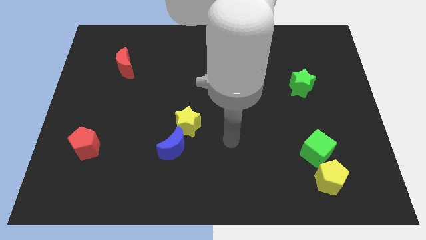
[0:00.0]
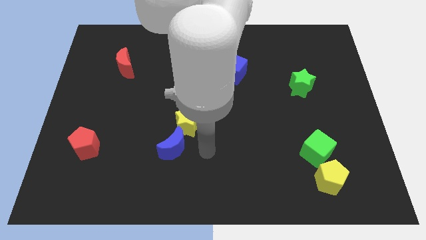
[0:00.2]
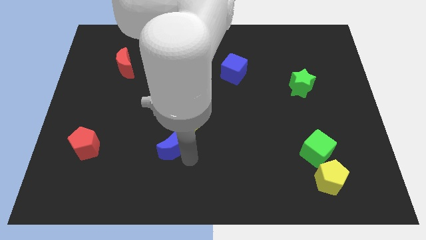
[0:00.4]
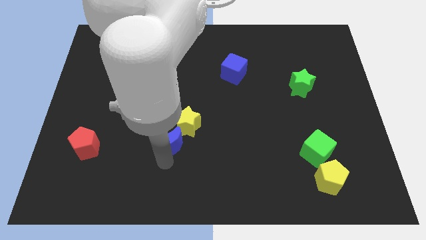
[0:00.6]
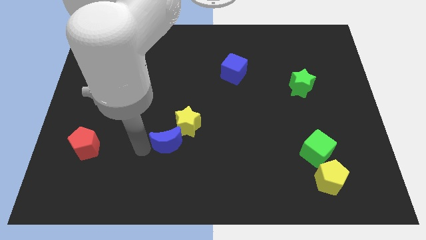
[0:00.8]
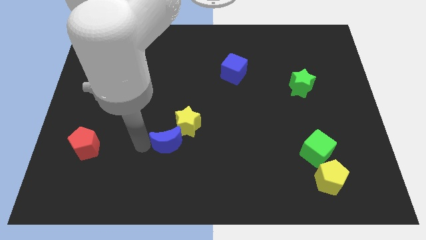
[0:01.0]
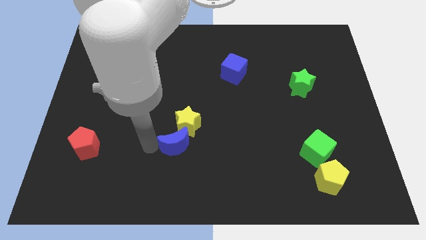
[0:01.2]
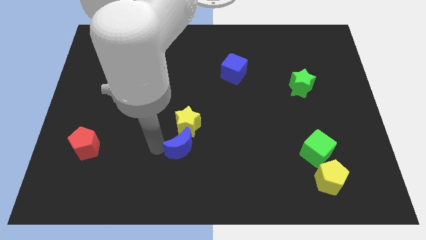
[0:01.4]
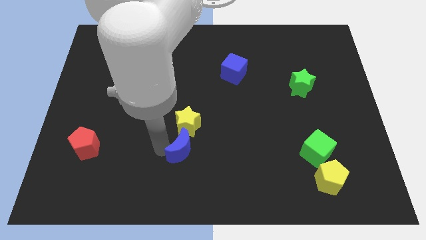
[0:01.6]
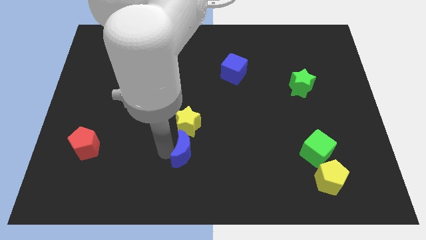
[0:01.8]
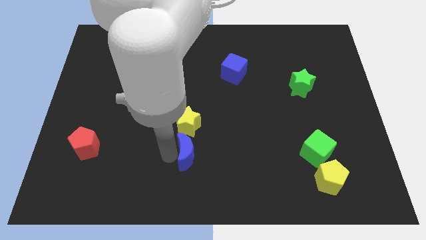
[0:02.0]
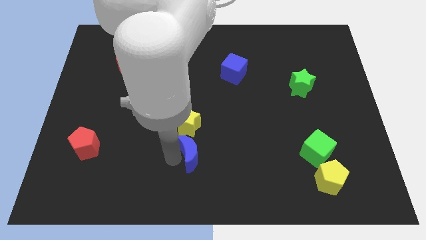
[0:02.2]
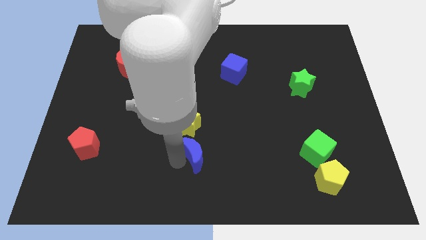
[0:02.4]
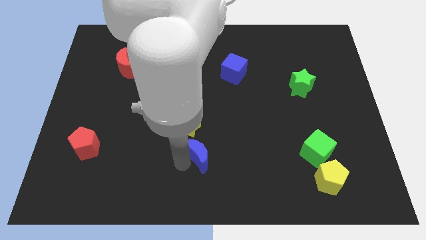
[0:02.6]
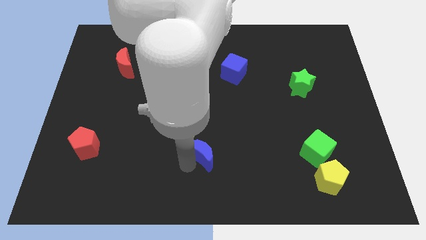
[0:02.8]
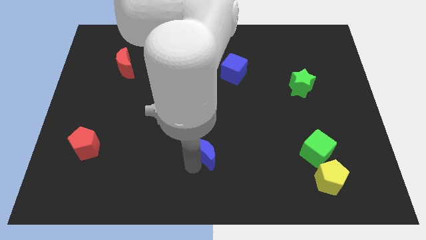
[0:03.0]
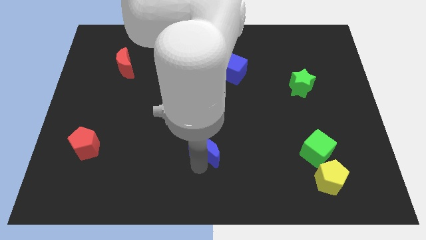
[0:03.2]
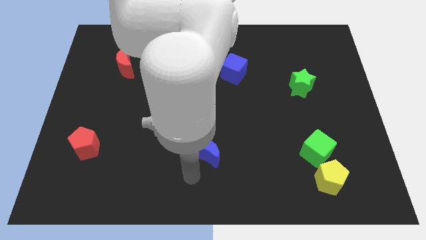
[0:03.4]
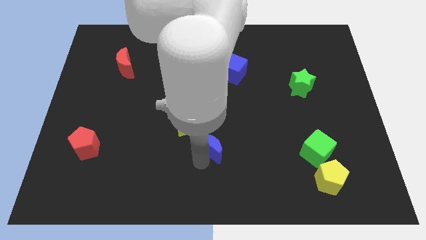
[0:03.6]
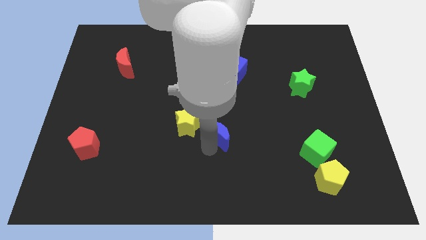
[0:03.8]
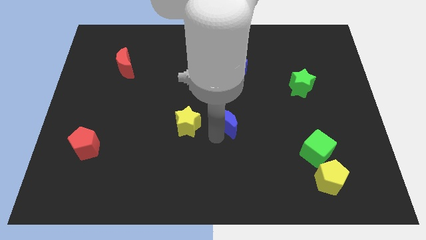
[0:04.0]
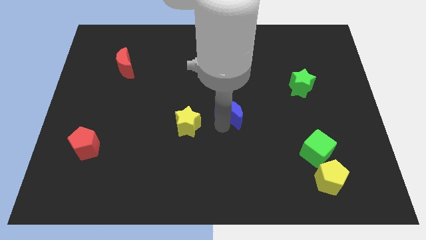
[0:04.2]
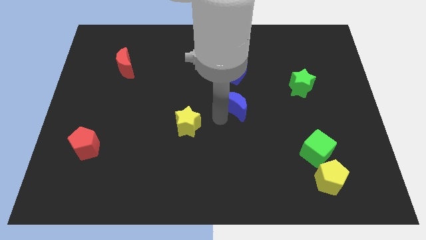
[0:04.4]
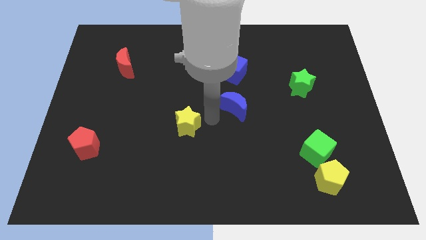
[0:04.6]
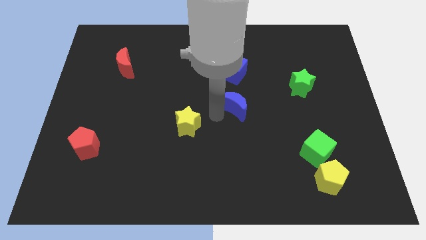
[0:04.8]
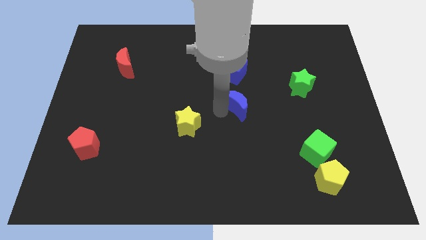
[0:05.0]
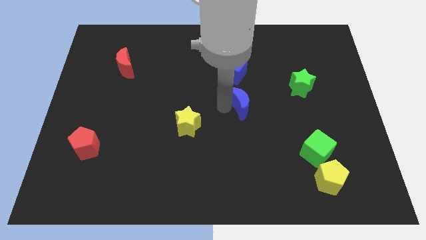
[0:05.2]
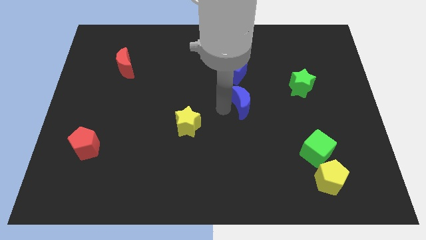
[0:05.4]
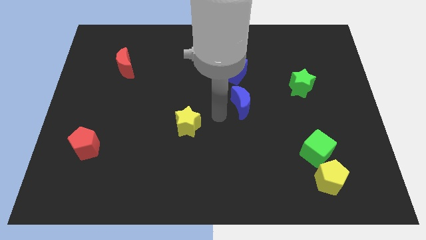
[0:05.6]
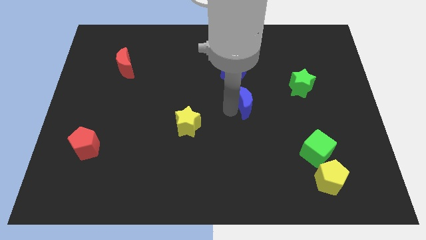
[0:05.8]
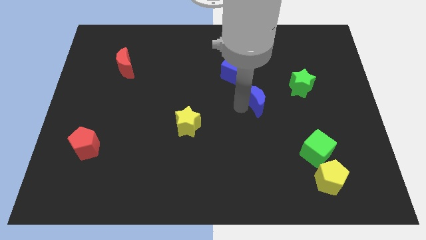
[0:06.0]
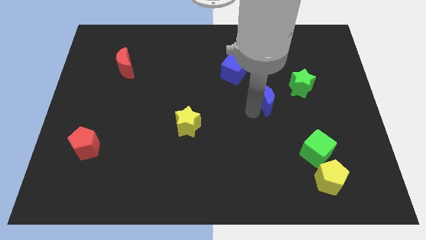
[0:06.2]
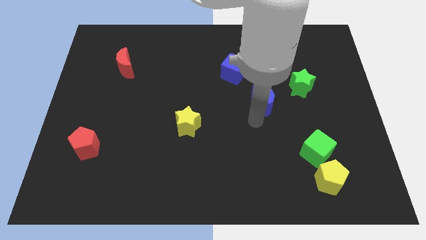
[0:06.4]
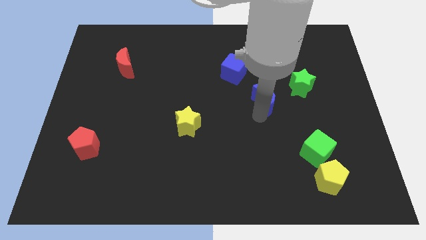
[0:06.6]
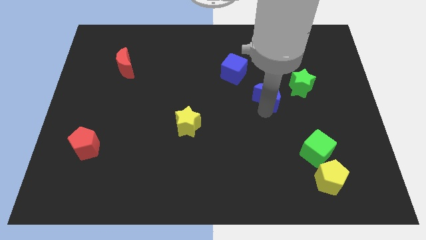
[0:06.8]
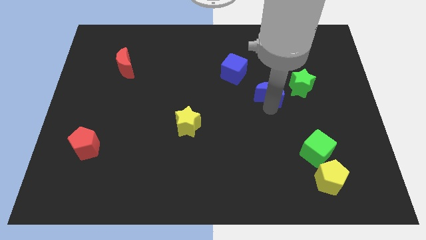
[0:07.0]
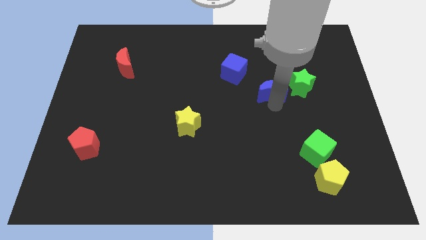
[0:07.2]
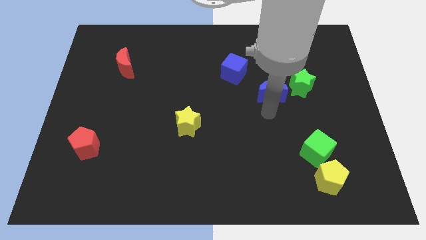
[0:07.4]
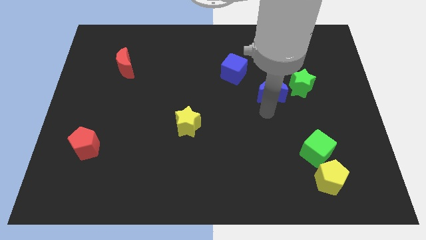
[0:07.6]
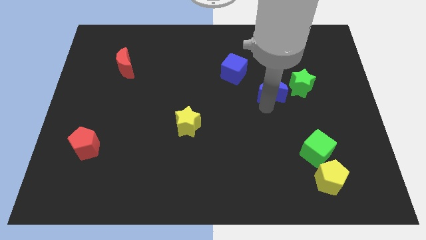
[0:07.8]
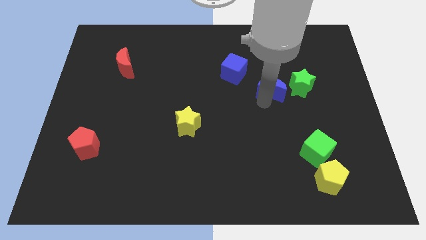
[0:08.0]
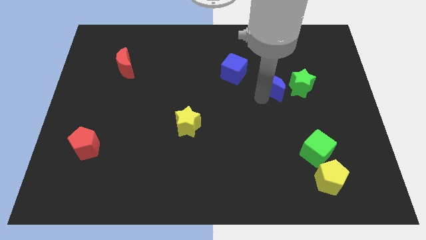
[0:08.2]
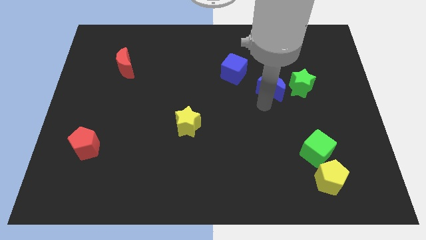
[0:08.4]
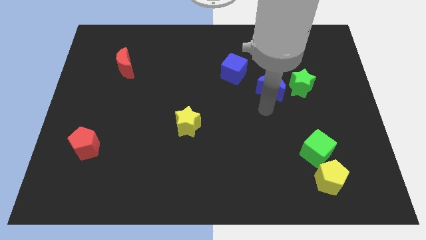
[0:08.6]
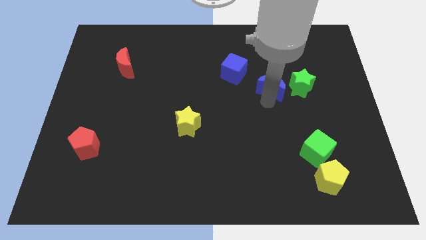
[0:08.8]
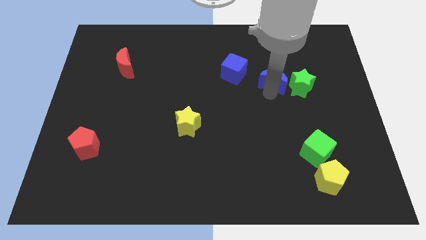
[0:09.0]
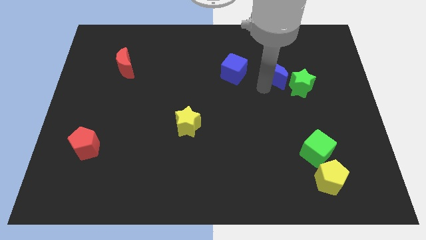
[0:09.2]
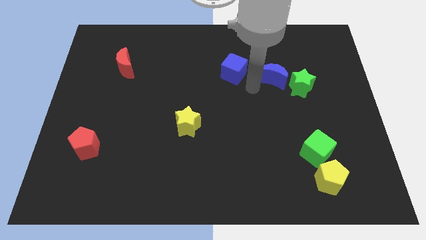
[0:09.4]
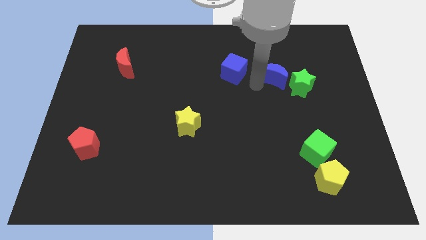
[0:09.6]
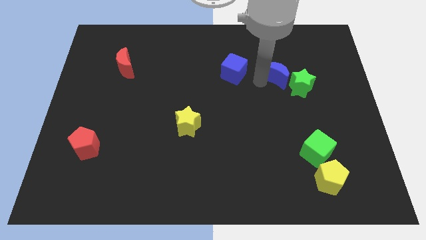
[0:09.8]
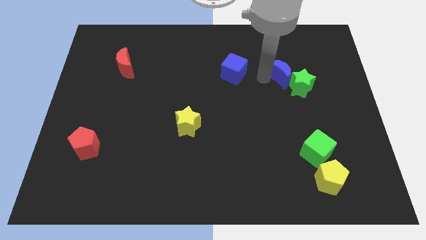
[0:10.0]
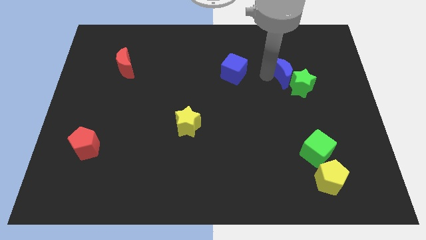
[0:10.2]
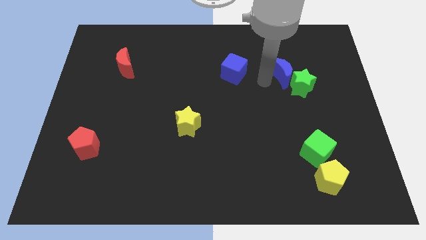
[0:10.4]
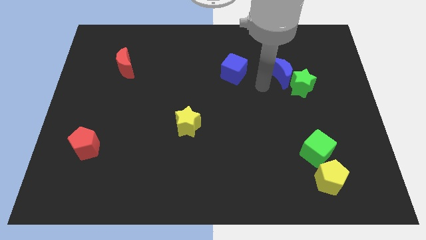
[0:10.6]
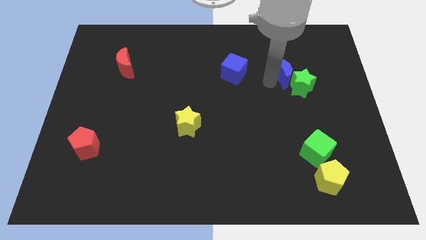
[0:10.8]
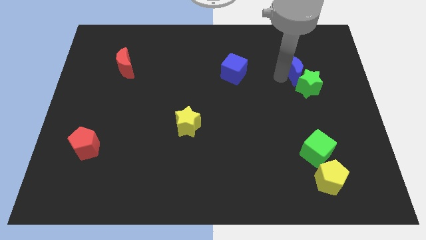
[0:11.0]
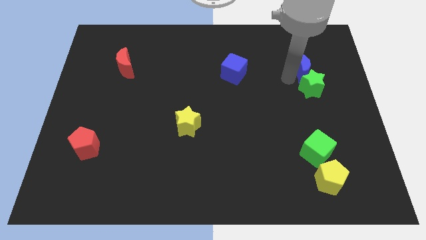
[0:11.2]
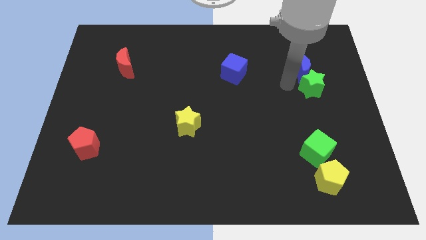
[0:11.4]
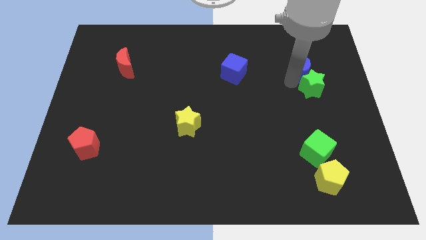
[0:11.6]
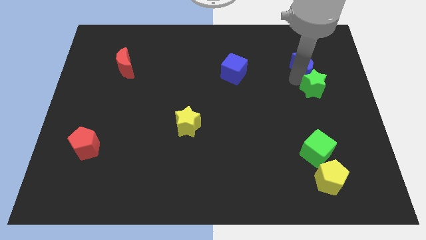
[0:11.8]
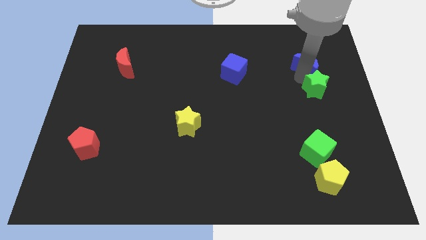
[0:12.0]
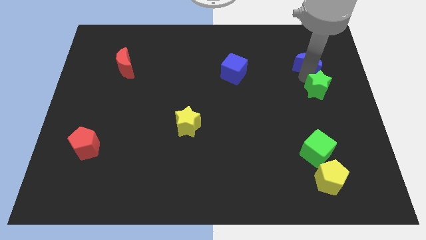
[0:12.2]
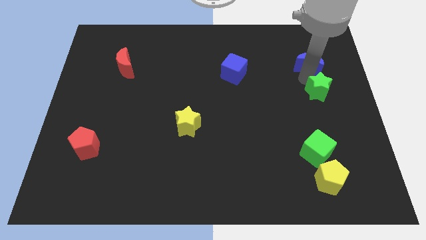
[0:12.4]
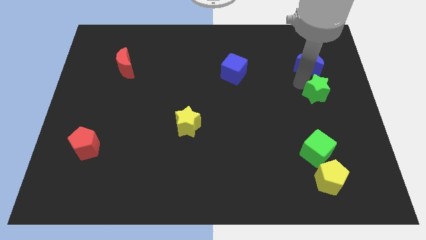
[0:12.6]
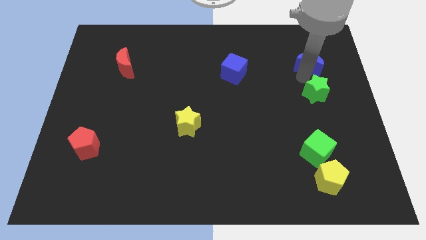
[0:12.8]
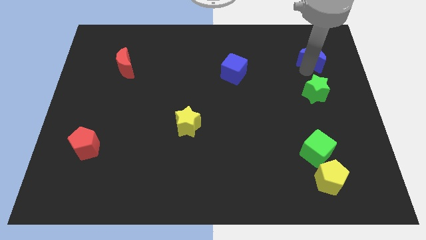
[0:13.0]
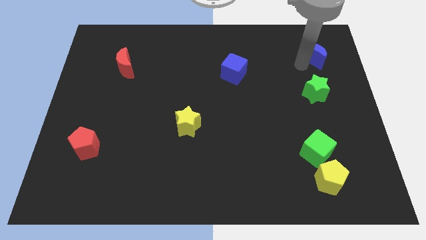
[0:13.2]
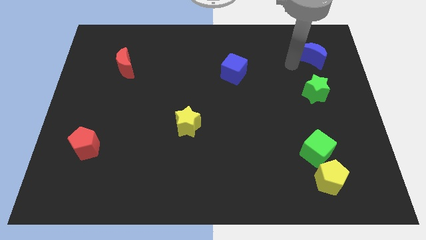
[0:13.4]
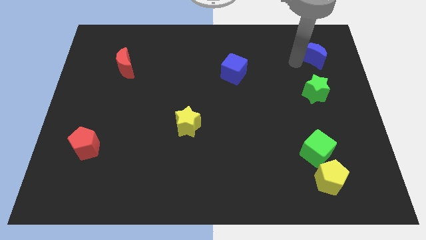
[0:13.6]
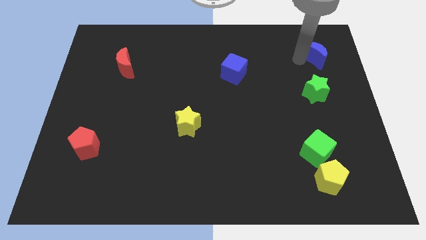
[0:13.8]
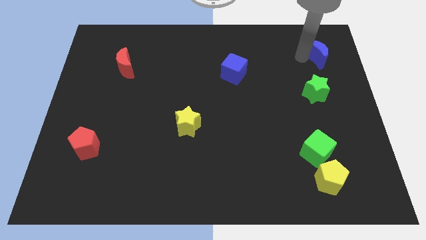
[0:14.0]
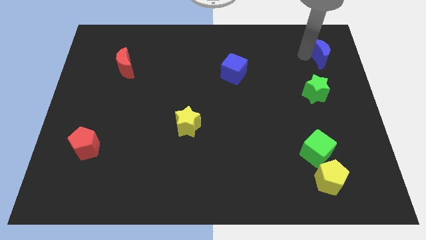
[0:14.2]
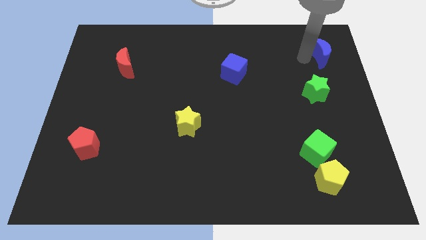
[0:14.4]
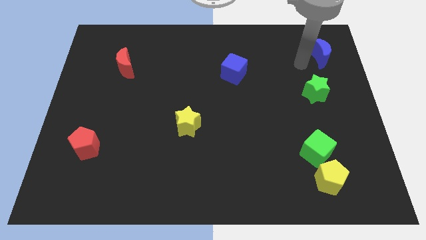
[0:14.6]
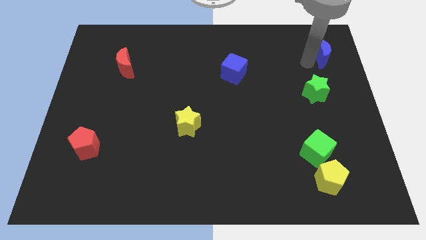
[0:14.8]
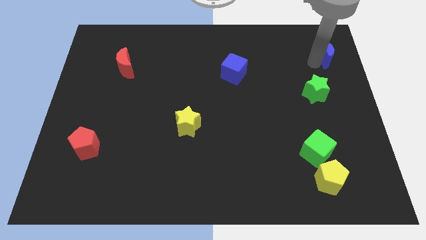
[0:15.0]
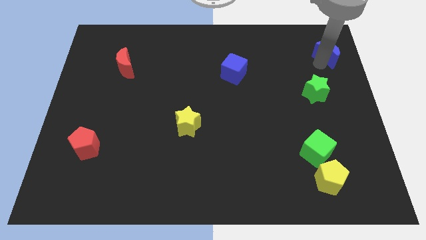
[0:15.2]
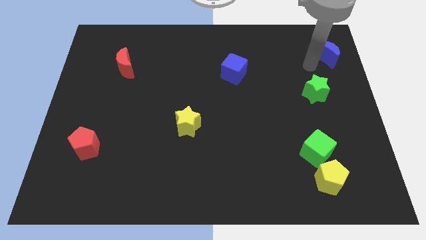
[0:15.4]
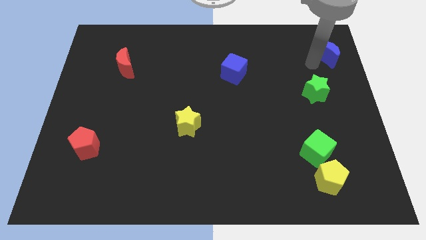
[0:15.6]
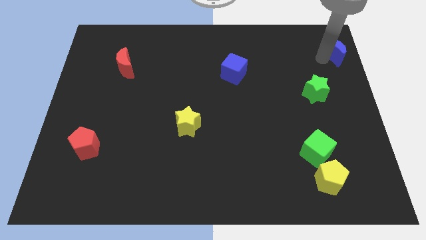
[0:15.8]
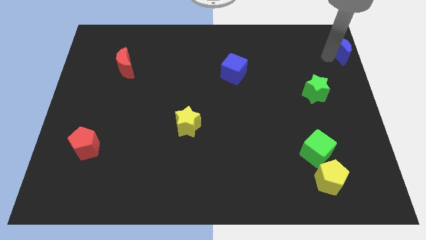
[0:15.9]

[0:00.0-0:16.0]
slide the blue moon to the top right corner
